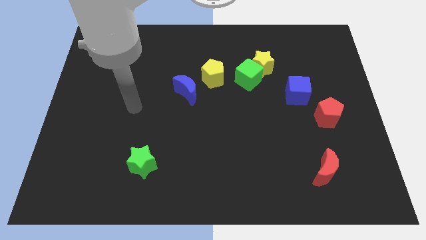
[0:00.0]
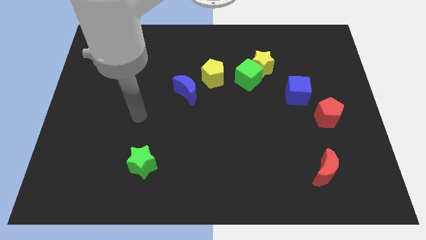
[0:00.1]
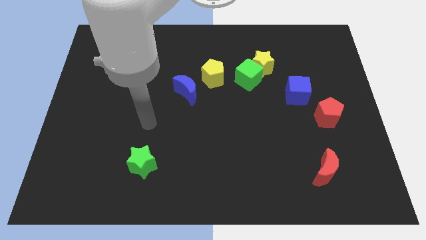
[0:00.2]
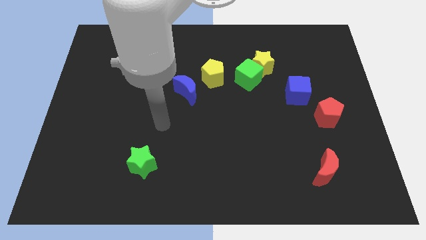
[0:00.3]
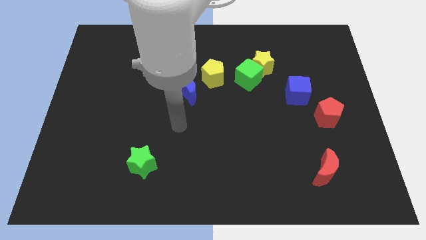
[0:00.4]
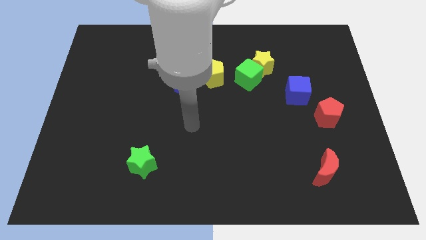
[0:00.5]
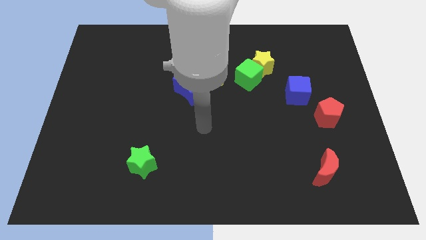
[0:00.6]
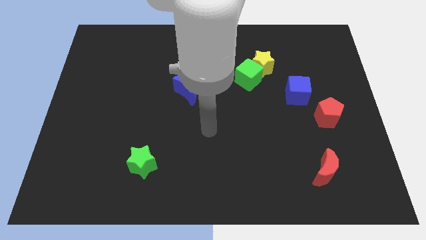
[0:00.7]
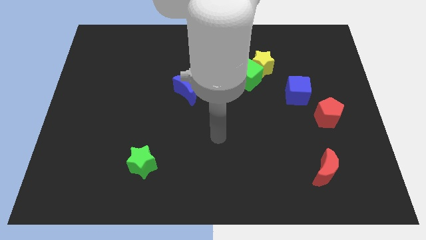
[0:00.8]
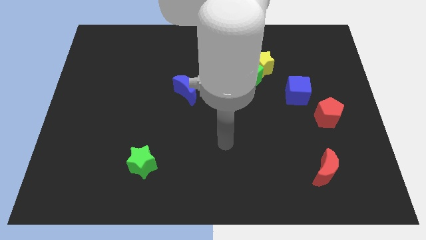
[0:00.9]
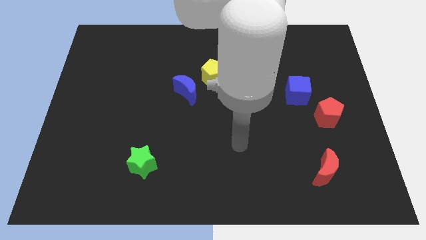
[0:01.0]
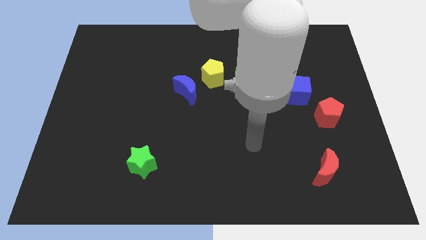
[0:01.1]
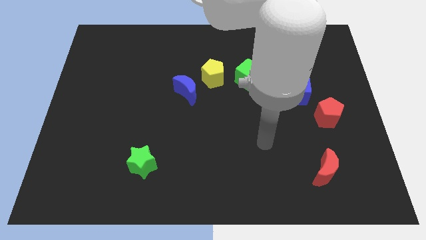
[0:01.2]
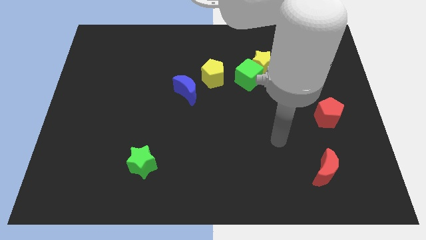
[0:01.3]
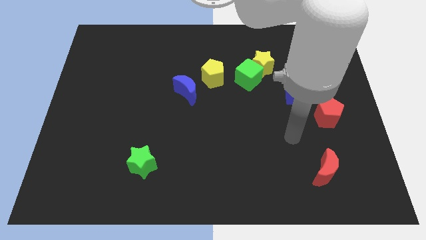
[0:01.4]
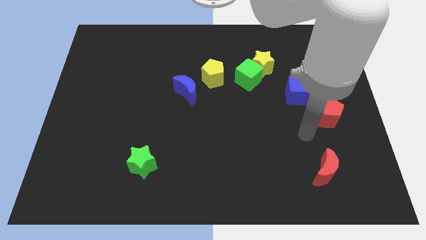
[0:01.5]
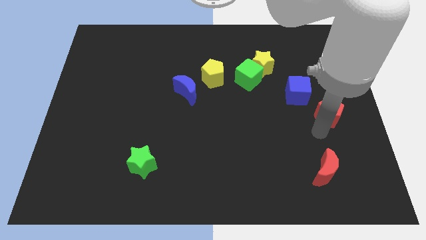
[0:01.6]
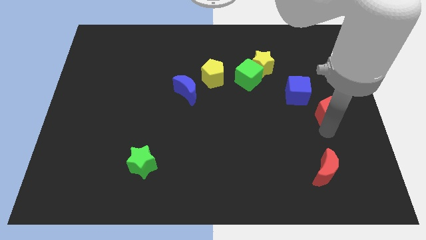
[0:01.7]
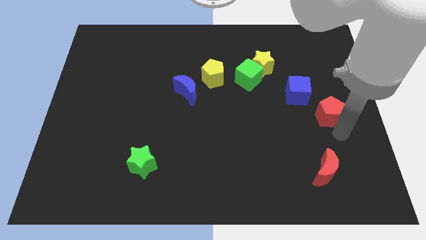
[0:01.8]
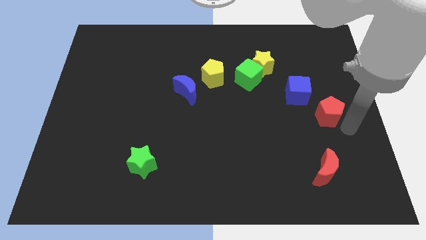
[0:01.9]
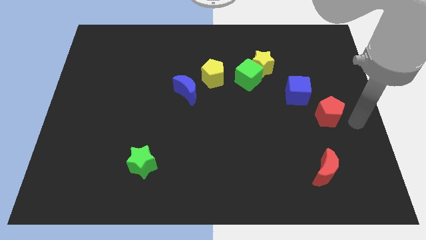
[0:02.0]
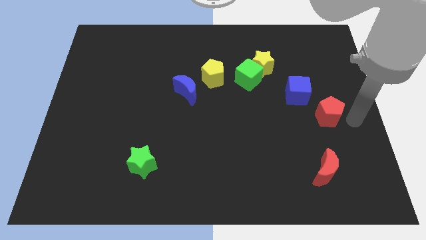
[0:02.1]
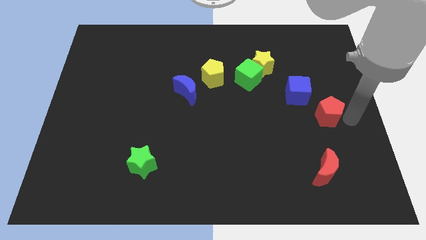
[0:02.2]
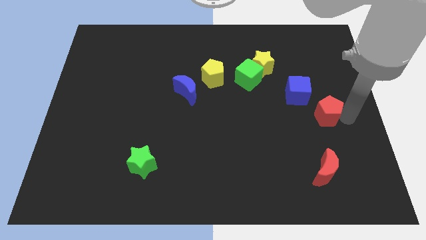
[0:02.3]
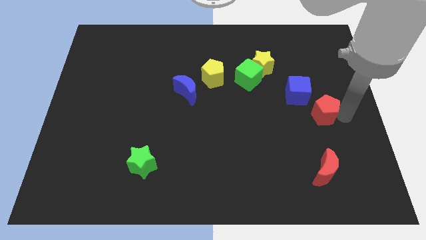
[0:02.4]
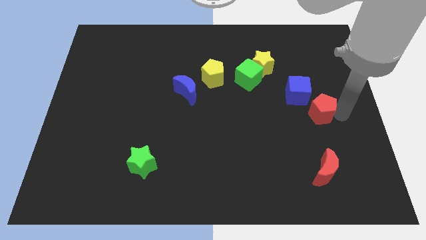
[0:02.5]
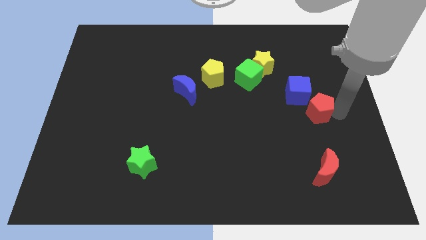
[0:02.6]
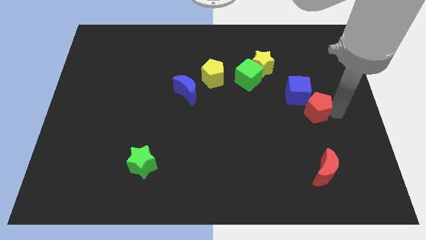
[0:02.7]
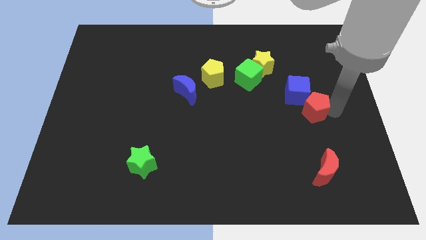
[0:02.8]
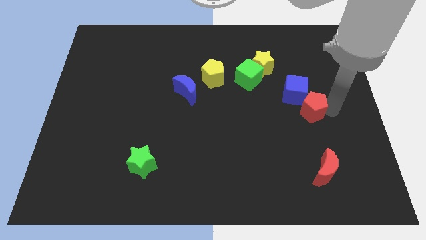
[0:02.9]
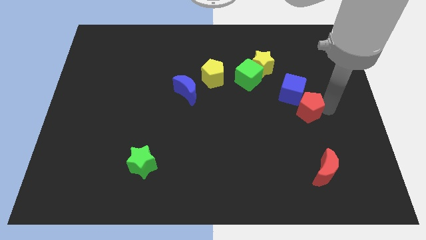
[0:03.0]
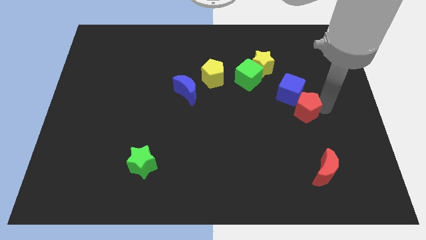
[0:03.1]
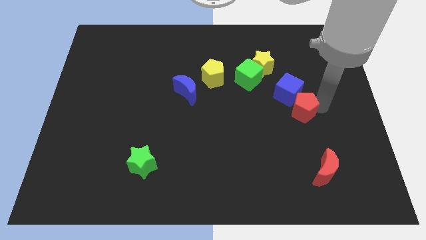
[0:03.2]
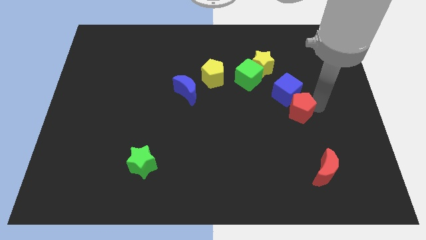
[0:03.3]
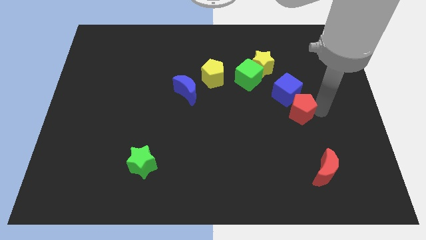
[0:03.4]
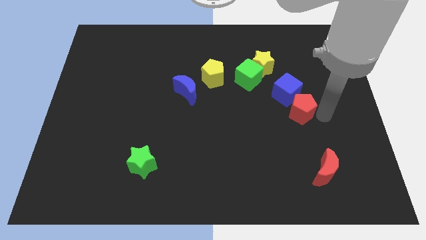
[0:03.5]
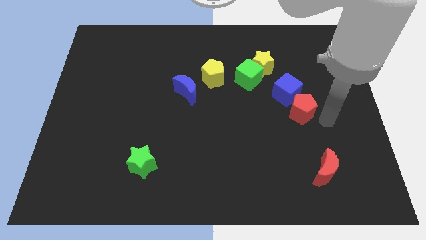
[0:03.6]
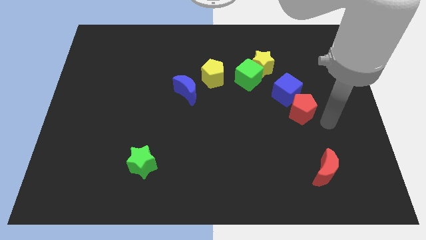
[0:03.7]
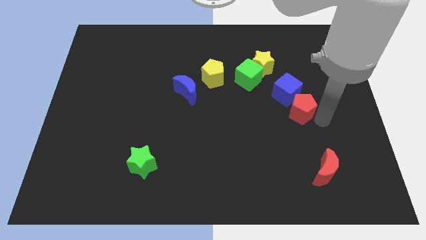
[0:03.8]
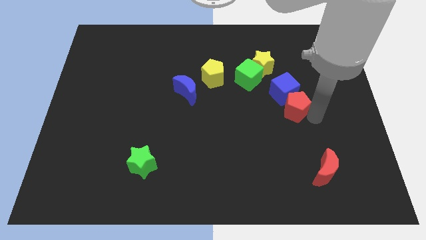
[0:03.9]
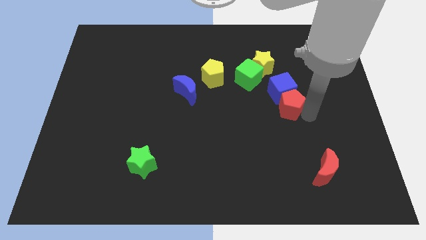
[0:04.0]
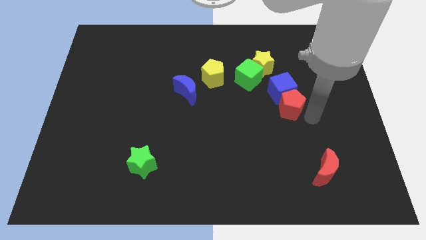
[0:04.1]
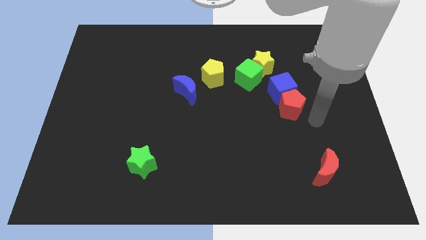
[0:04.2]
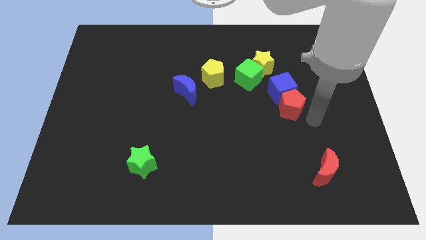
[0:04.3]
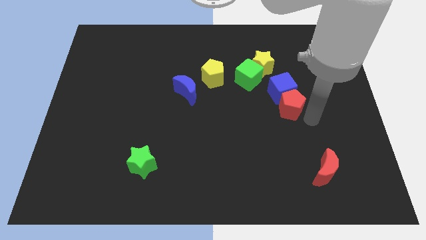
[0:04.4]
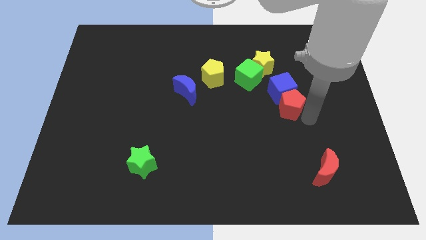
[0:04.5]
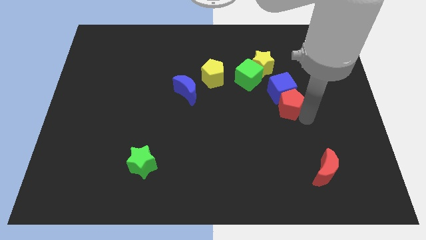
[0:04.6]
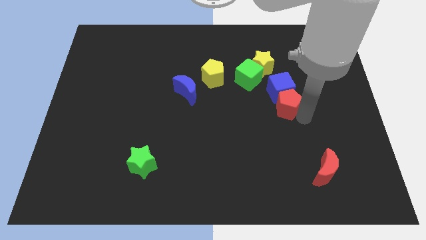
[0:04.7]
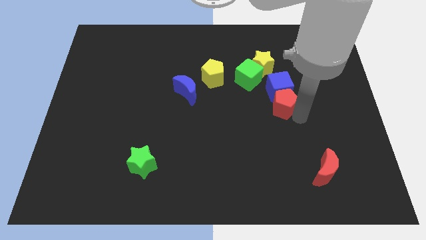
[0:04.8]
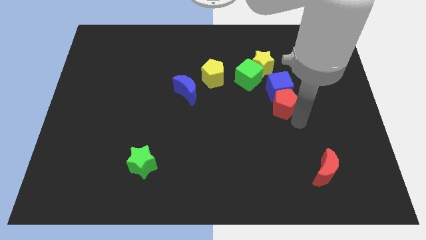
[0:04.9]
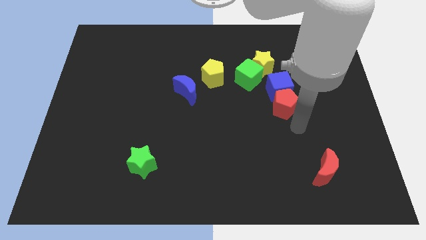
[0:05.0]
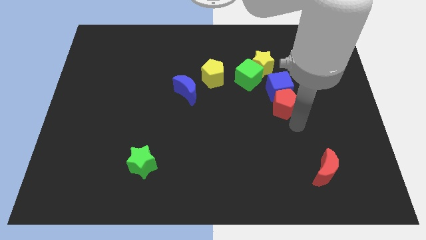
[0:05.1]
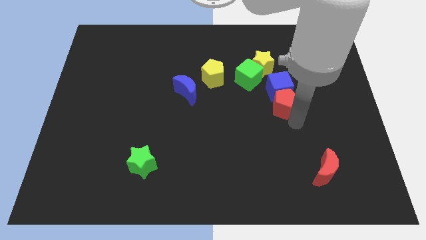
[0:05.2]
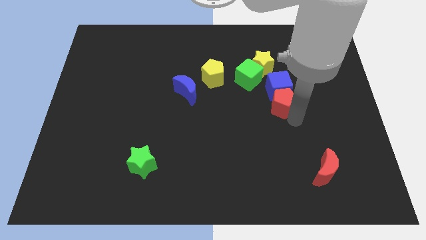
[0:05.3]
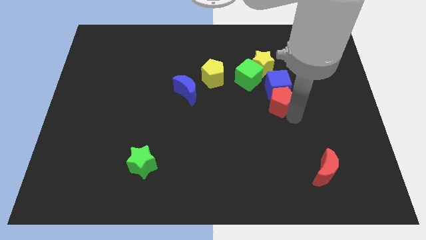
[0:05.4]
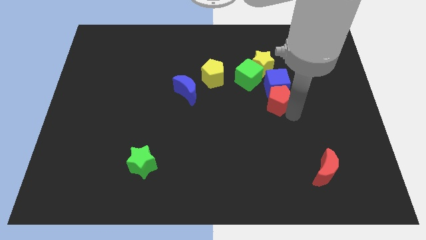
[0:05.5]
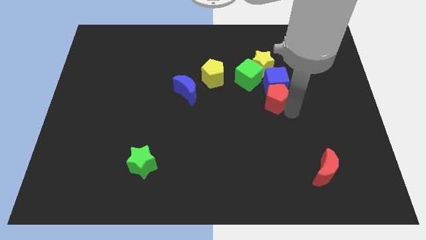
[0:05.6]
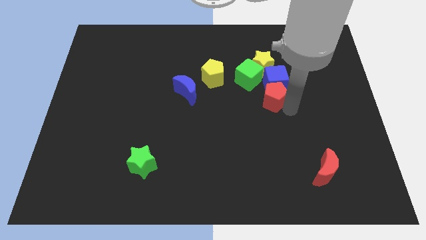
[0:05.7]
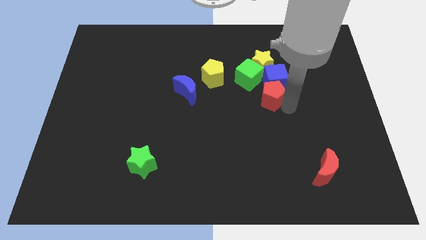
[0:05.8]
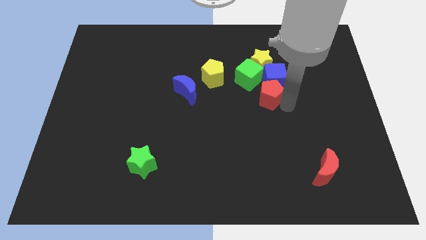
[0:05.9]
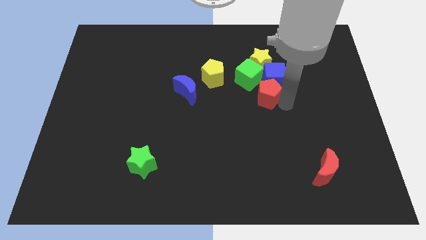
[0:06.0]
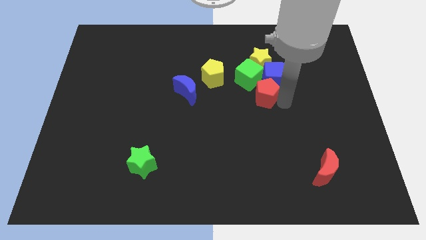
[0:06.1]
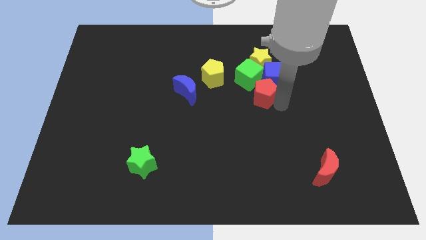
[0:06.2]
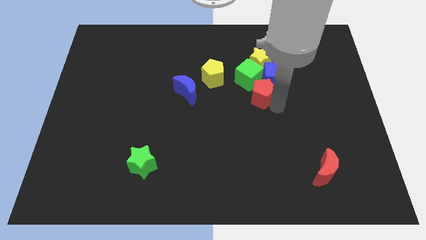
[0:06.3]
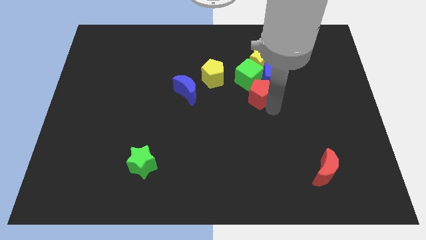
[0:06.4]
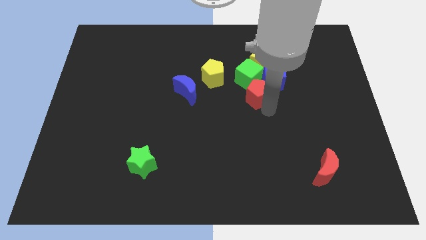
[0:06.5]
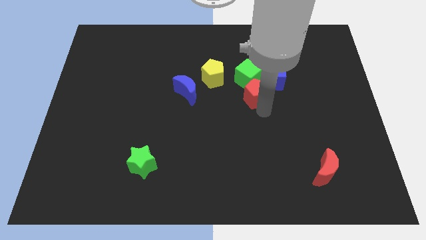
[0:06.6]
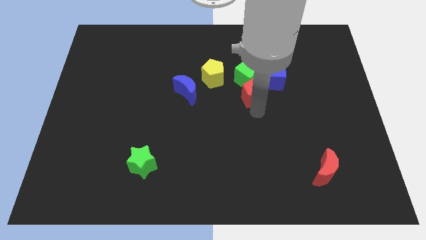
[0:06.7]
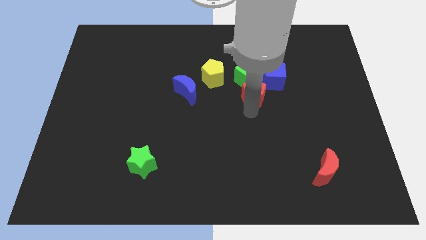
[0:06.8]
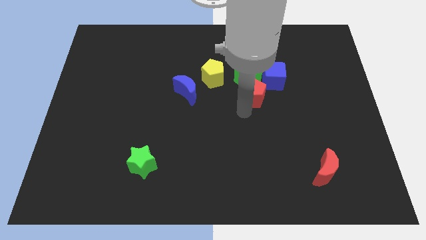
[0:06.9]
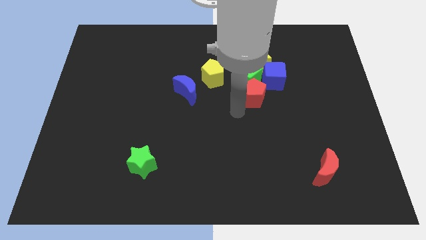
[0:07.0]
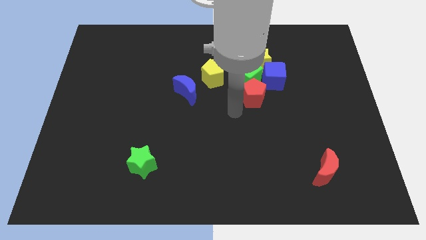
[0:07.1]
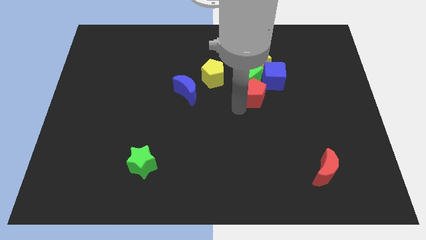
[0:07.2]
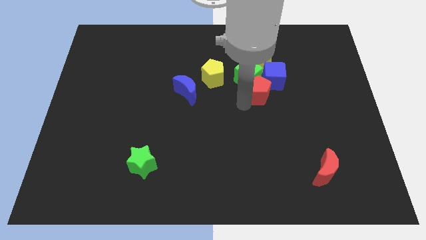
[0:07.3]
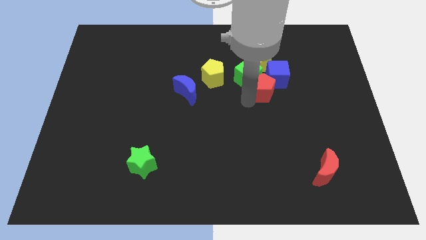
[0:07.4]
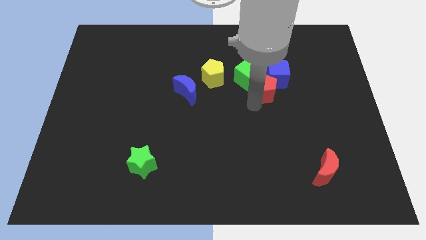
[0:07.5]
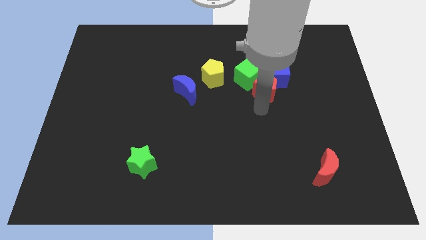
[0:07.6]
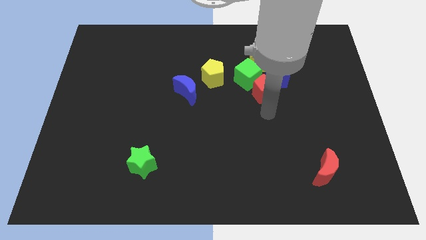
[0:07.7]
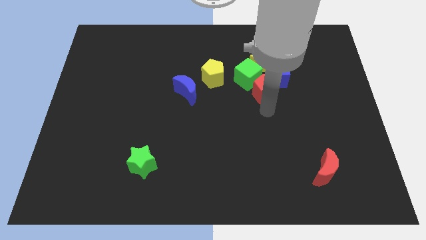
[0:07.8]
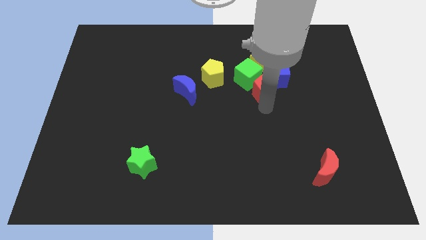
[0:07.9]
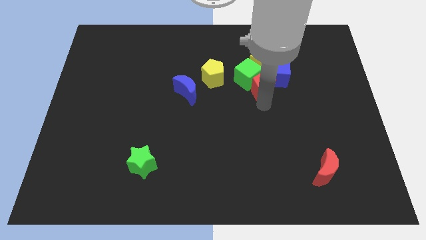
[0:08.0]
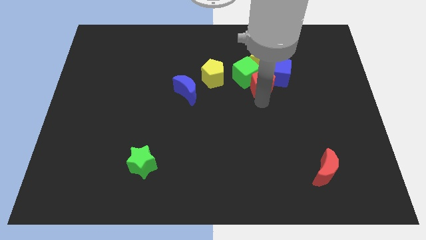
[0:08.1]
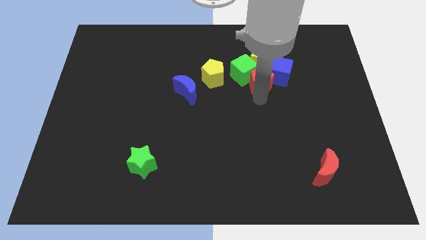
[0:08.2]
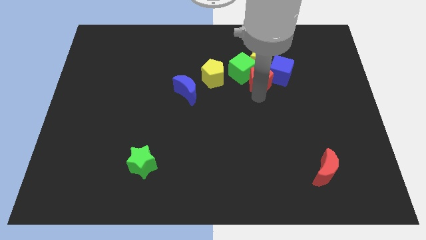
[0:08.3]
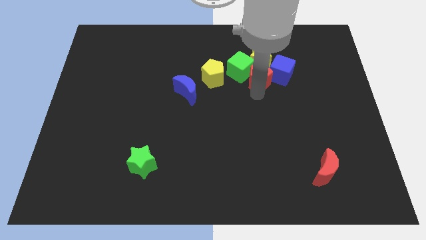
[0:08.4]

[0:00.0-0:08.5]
move the red pentagon next to the yellow star
